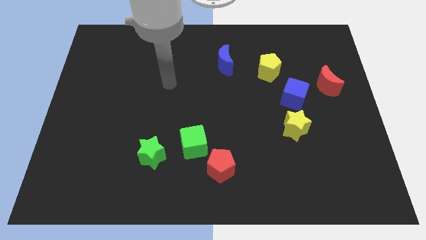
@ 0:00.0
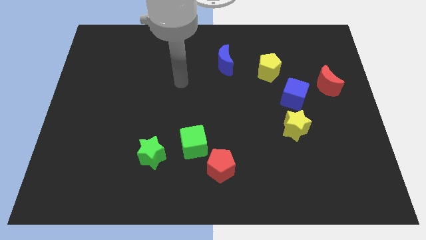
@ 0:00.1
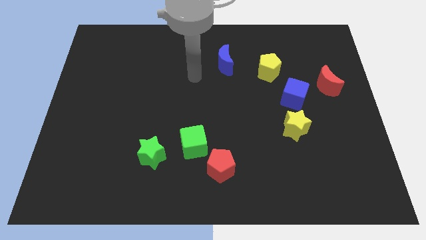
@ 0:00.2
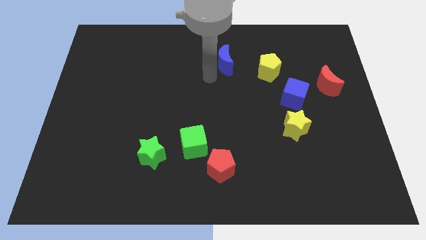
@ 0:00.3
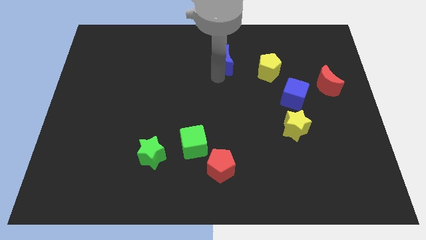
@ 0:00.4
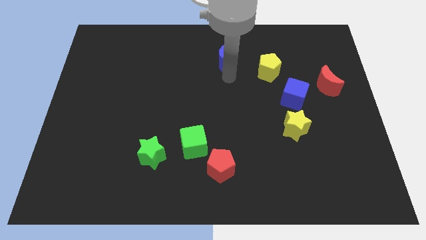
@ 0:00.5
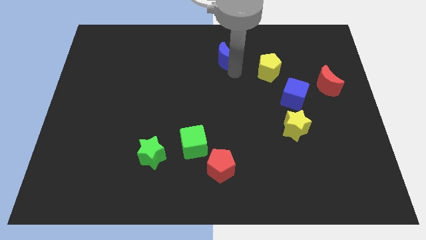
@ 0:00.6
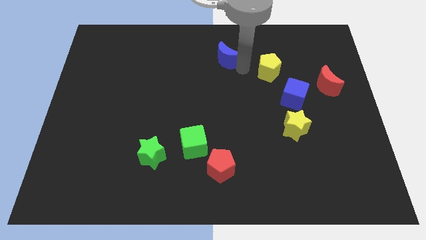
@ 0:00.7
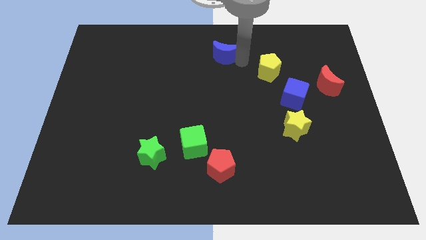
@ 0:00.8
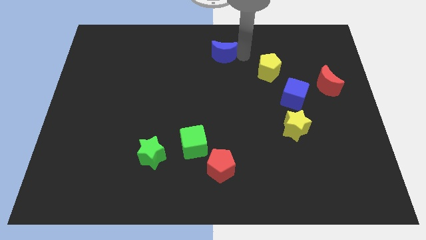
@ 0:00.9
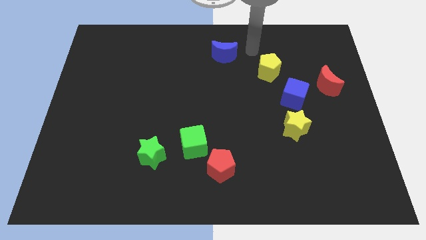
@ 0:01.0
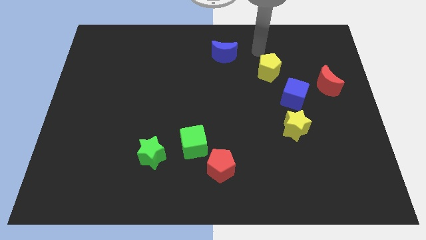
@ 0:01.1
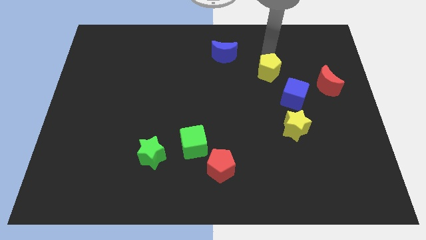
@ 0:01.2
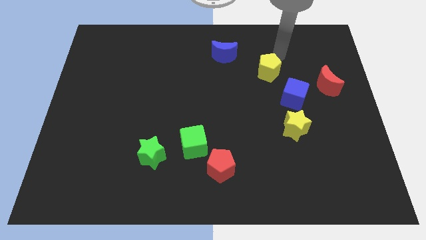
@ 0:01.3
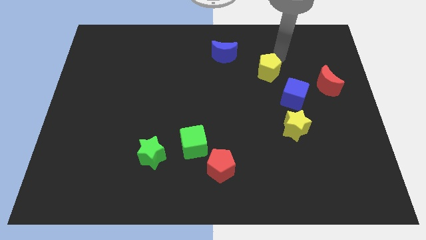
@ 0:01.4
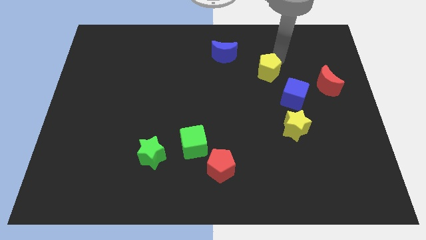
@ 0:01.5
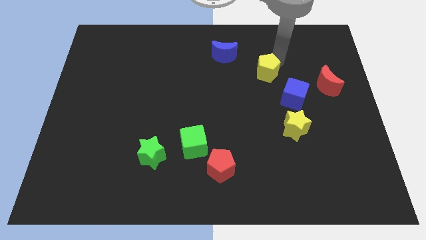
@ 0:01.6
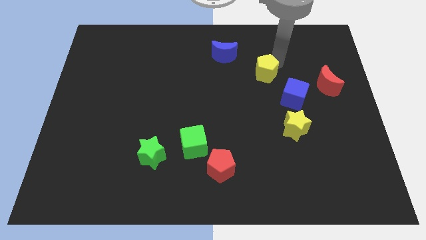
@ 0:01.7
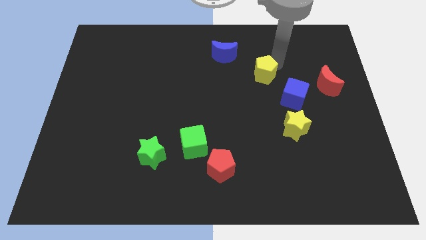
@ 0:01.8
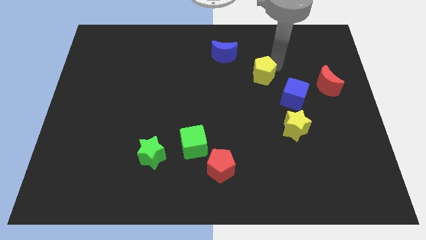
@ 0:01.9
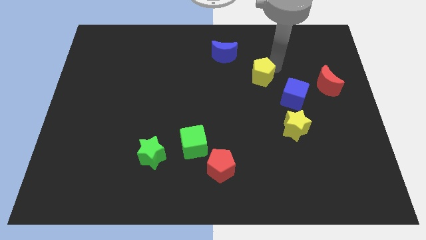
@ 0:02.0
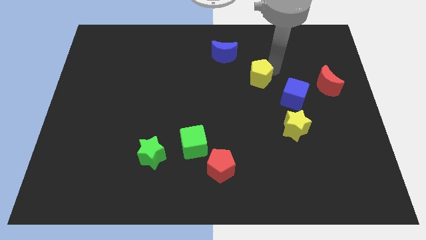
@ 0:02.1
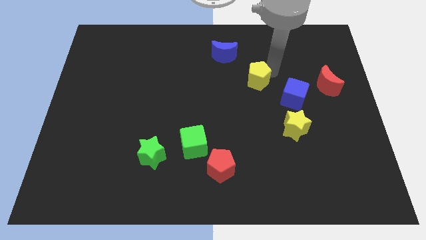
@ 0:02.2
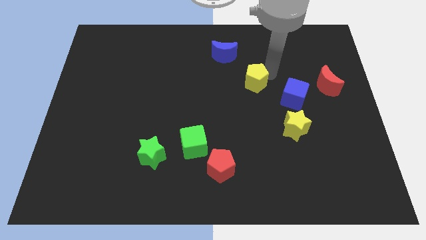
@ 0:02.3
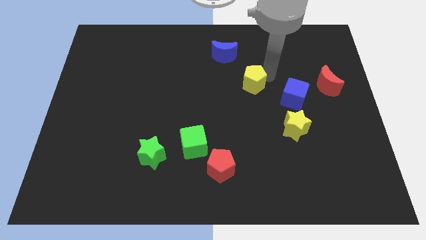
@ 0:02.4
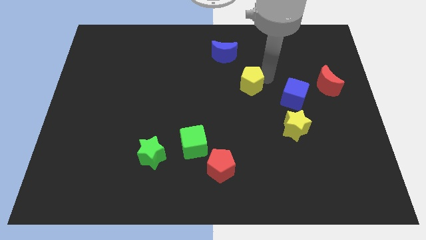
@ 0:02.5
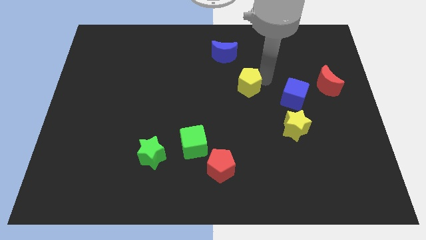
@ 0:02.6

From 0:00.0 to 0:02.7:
push the yellow pentagon downwards and then left a little

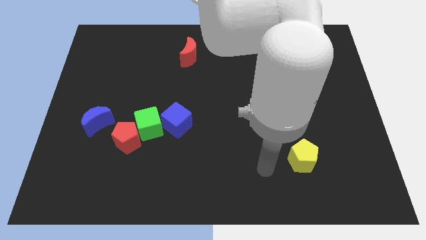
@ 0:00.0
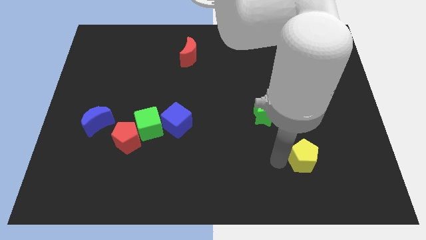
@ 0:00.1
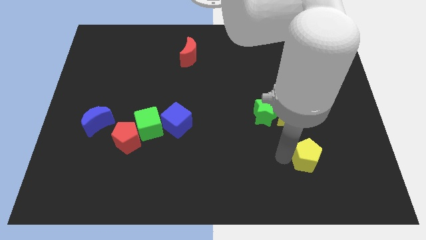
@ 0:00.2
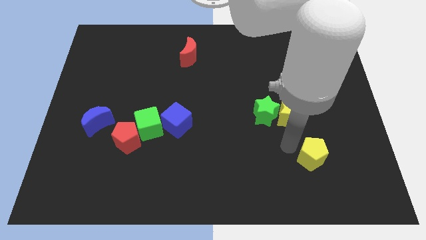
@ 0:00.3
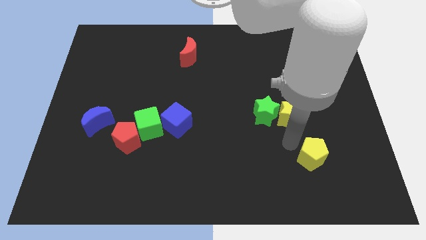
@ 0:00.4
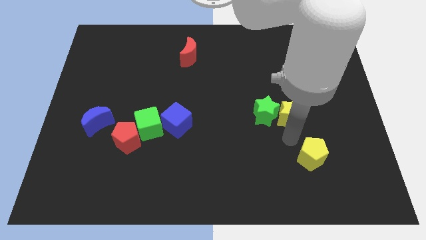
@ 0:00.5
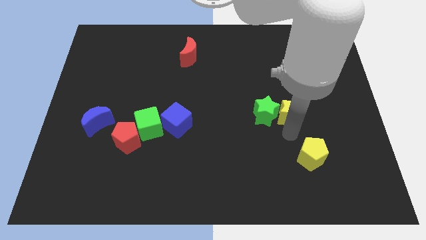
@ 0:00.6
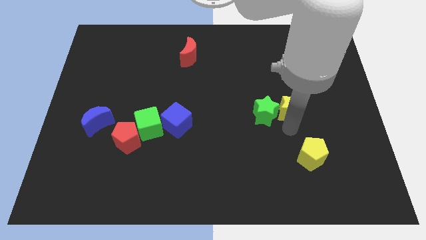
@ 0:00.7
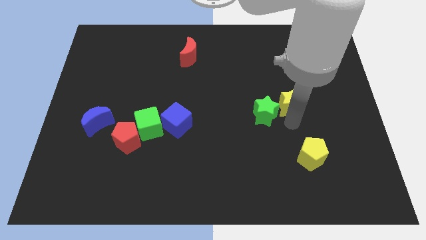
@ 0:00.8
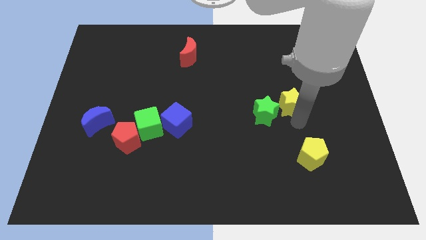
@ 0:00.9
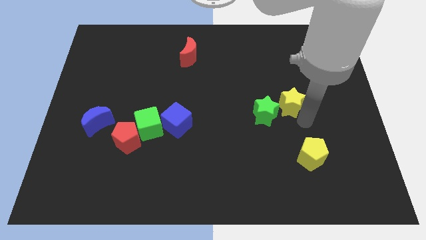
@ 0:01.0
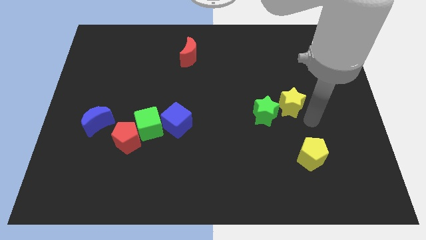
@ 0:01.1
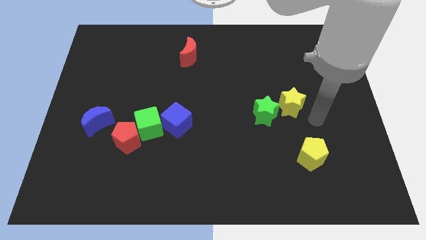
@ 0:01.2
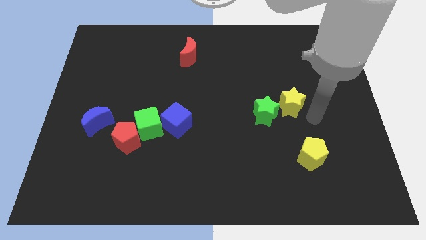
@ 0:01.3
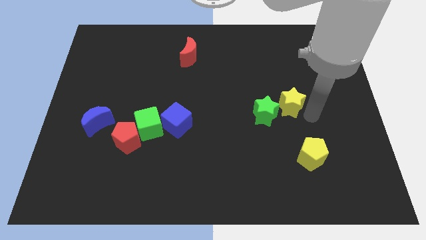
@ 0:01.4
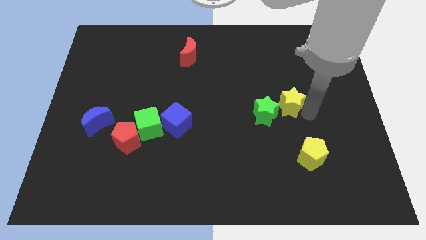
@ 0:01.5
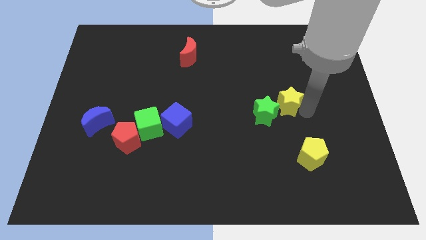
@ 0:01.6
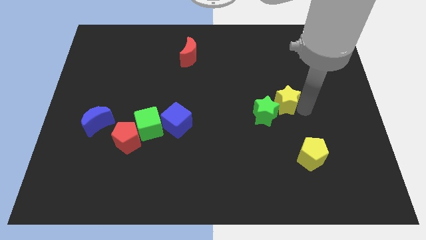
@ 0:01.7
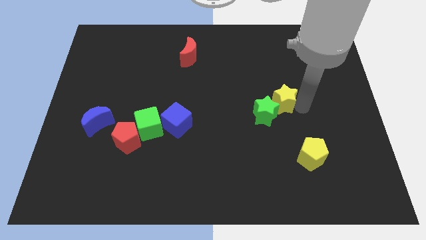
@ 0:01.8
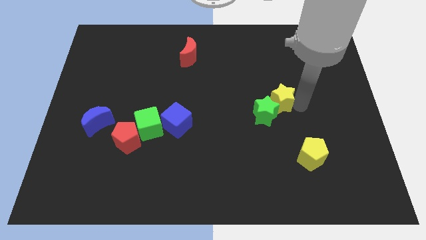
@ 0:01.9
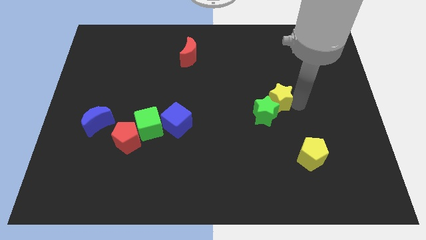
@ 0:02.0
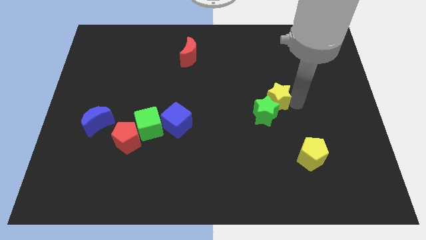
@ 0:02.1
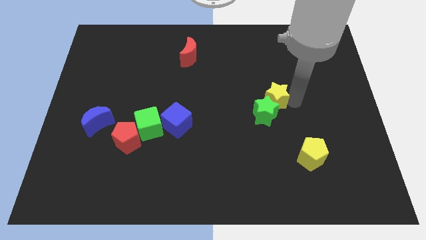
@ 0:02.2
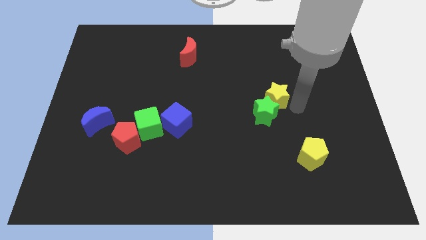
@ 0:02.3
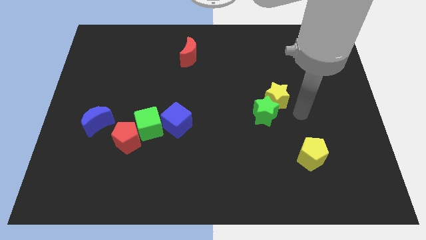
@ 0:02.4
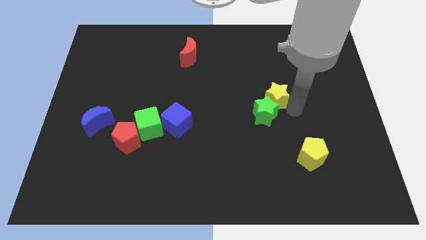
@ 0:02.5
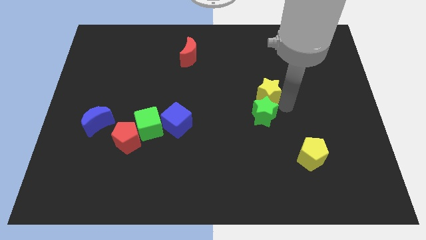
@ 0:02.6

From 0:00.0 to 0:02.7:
slide the yellow star a little up and to the left diagonally

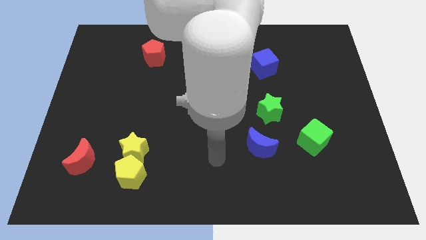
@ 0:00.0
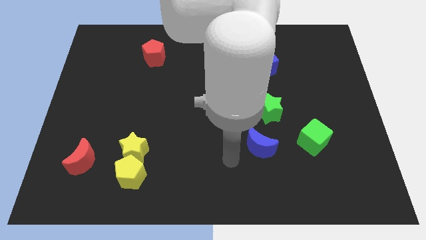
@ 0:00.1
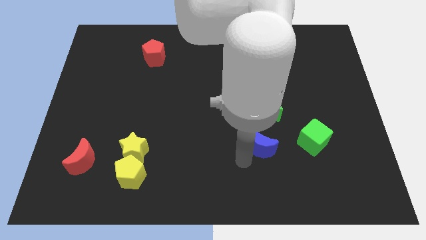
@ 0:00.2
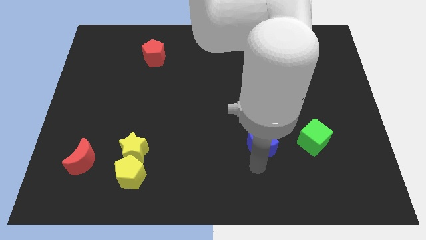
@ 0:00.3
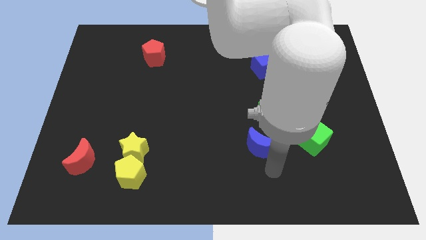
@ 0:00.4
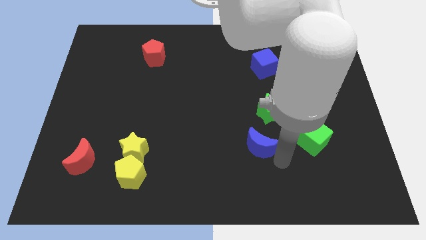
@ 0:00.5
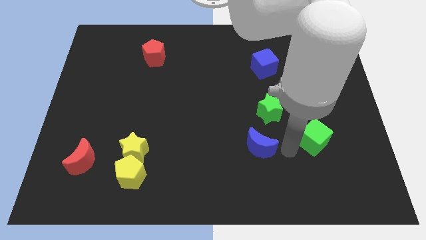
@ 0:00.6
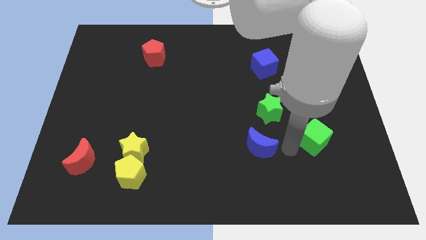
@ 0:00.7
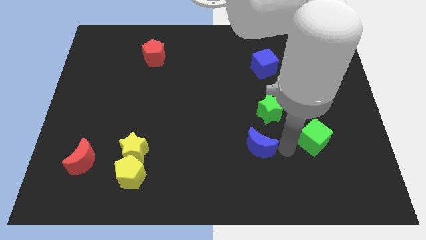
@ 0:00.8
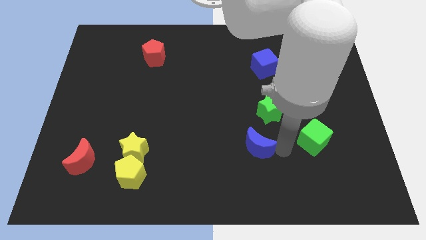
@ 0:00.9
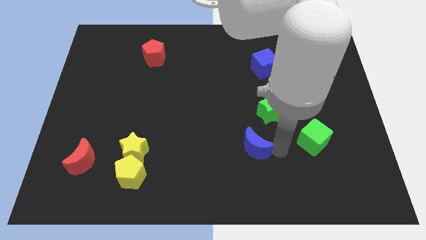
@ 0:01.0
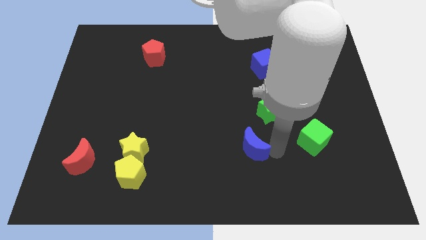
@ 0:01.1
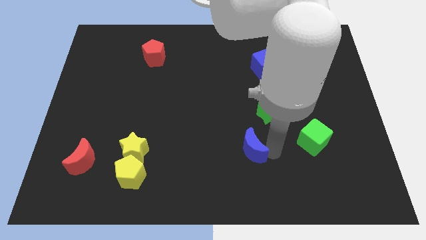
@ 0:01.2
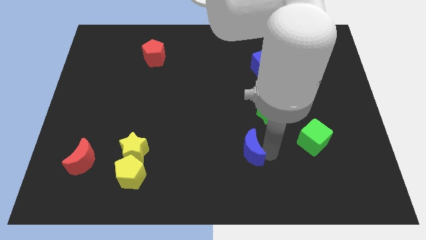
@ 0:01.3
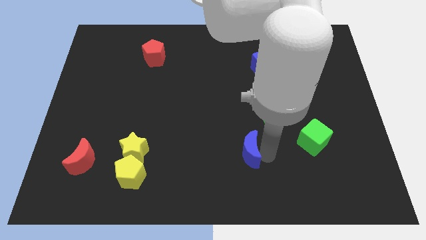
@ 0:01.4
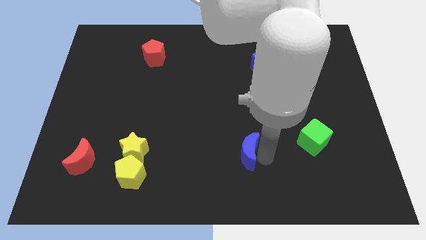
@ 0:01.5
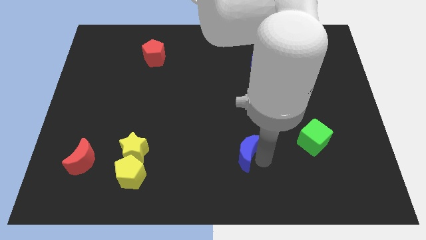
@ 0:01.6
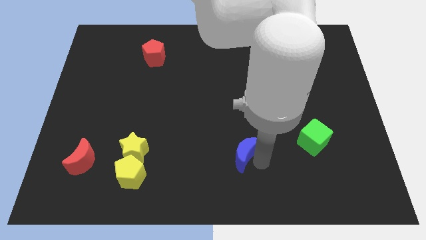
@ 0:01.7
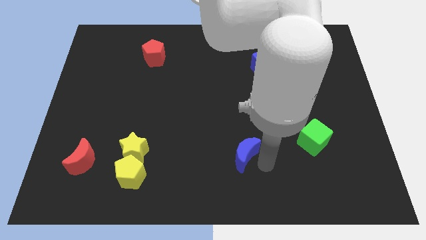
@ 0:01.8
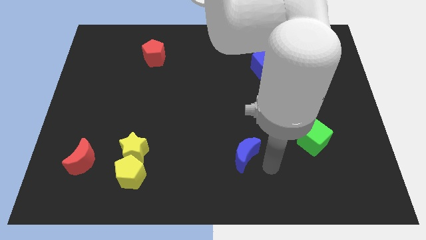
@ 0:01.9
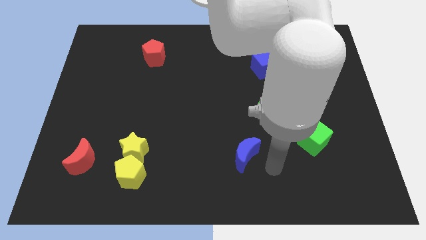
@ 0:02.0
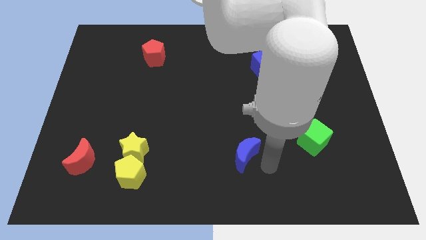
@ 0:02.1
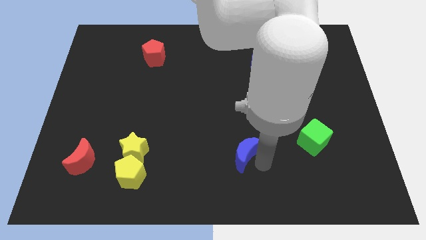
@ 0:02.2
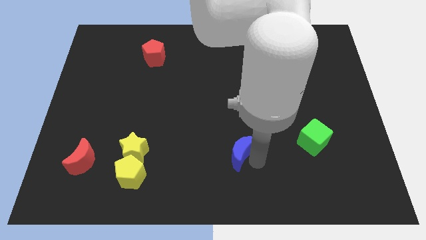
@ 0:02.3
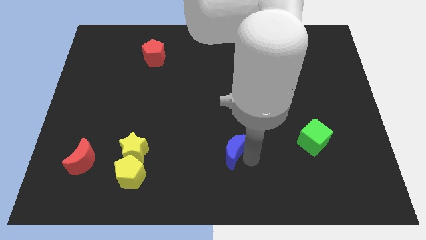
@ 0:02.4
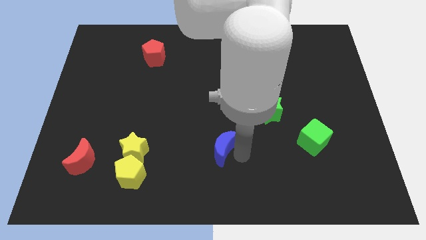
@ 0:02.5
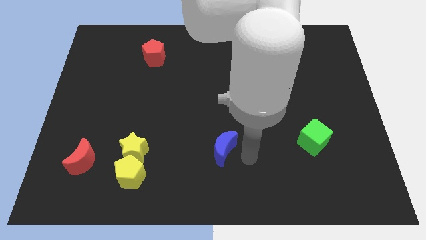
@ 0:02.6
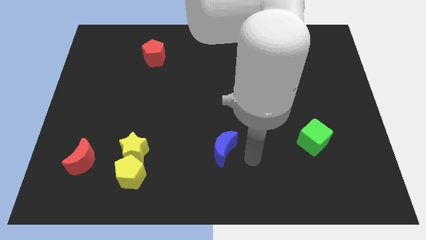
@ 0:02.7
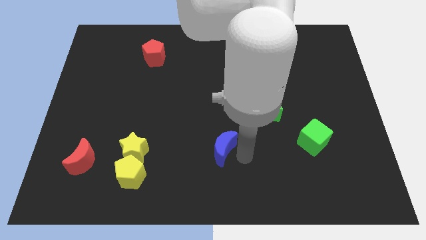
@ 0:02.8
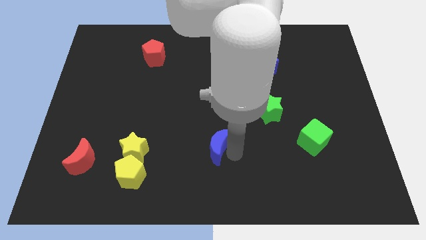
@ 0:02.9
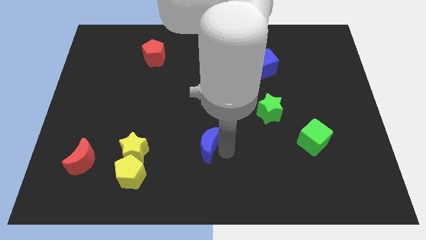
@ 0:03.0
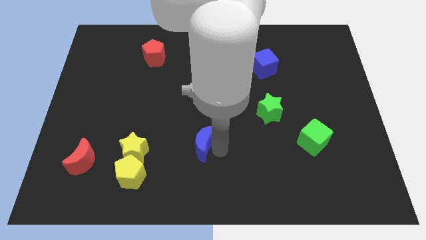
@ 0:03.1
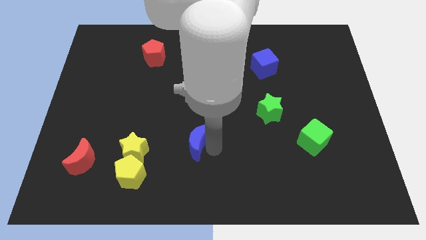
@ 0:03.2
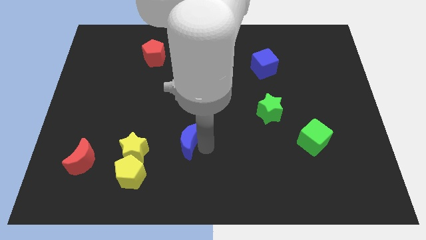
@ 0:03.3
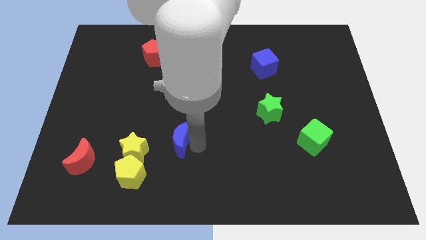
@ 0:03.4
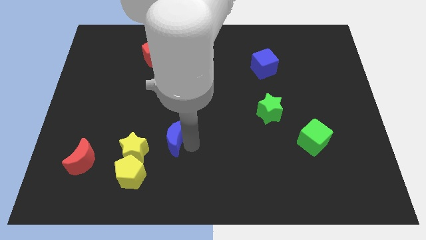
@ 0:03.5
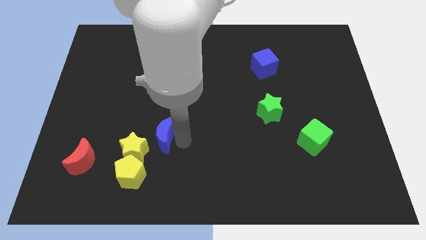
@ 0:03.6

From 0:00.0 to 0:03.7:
move the blue moon to the left
